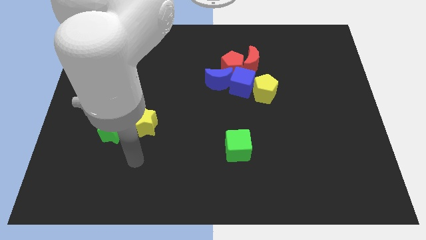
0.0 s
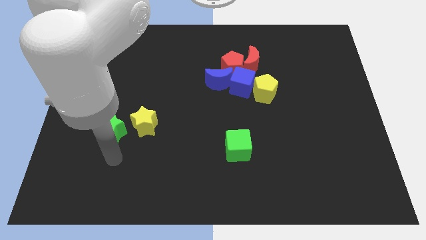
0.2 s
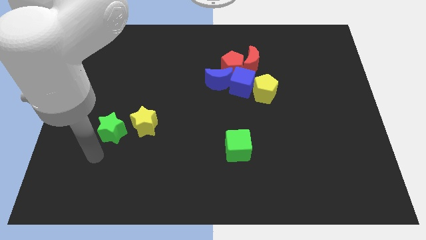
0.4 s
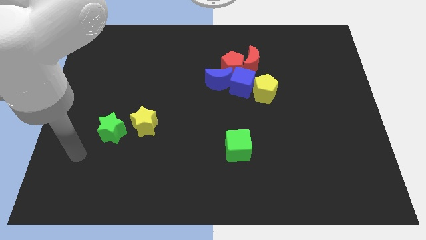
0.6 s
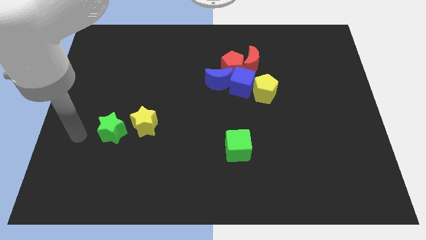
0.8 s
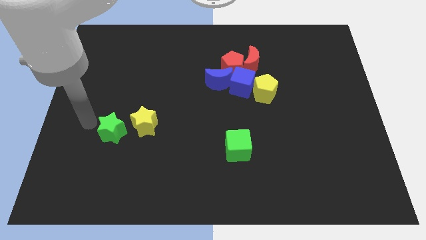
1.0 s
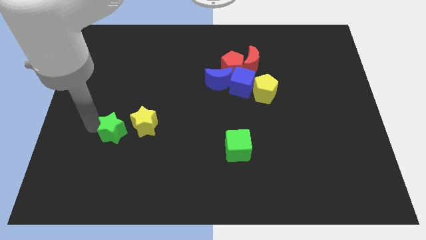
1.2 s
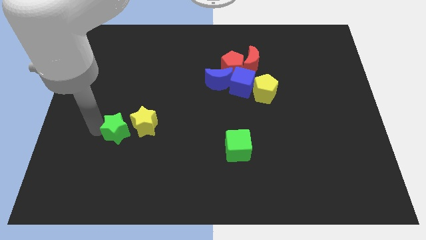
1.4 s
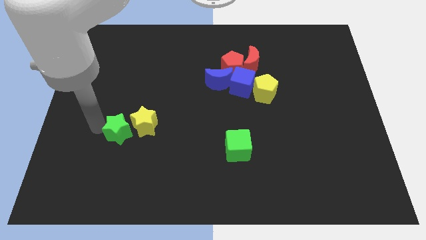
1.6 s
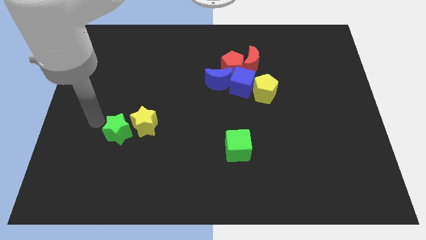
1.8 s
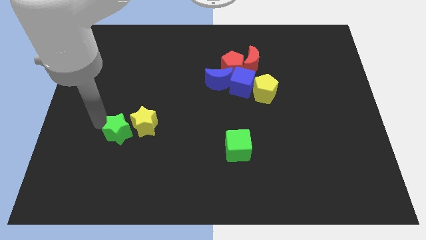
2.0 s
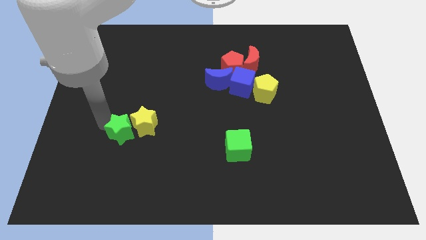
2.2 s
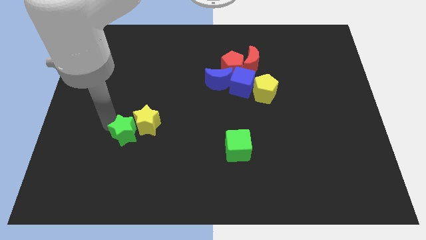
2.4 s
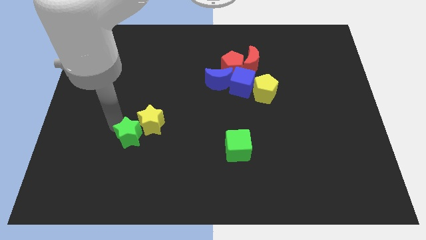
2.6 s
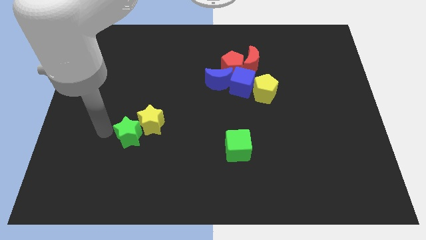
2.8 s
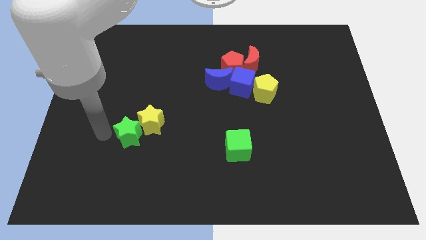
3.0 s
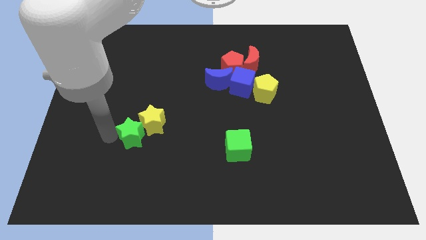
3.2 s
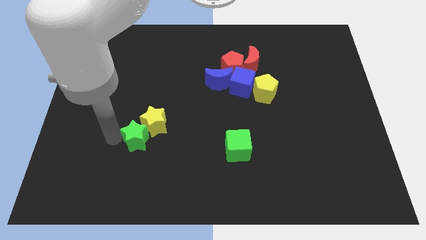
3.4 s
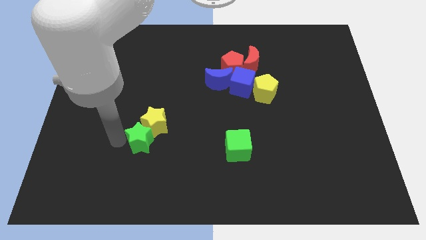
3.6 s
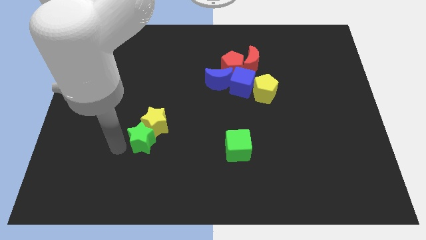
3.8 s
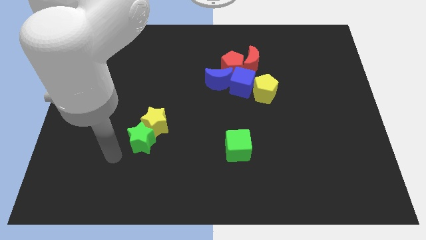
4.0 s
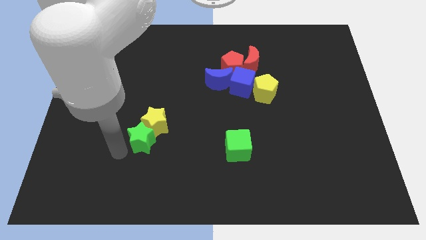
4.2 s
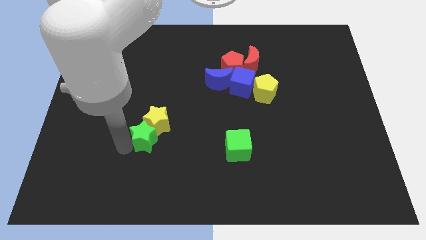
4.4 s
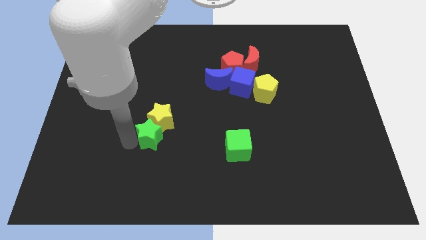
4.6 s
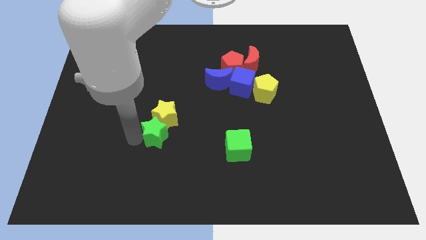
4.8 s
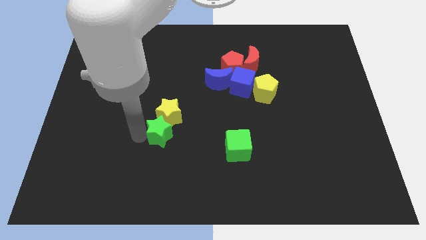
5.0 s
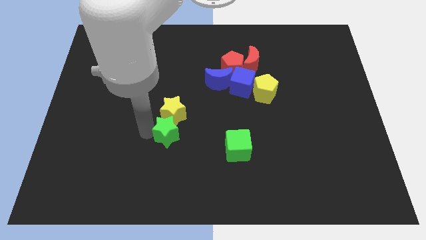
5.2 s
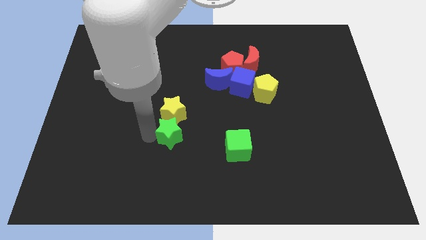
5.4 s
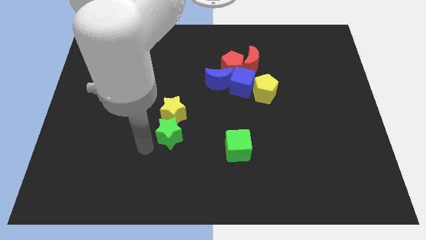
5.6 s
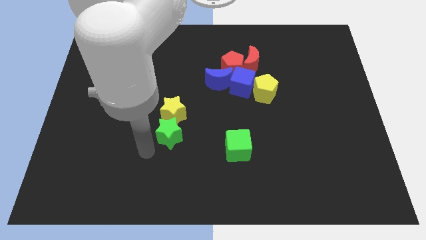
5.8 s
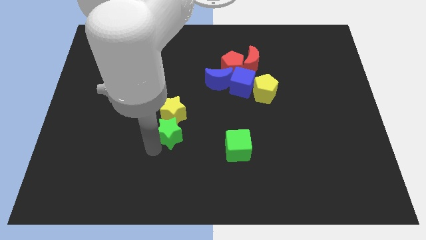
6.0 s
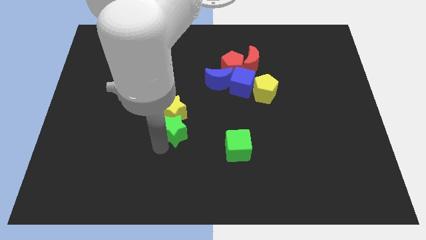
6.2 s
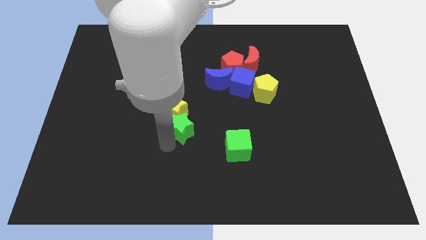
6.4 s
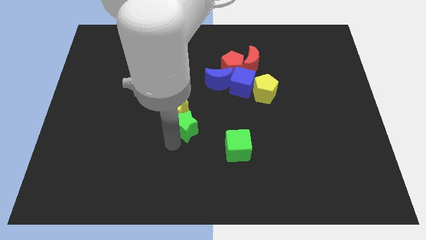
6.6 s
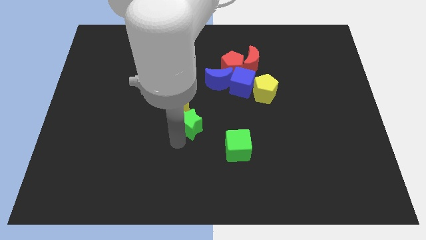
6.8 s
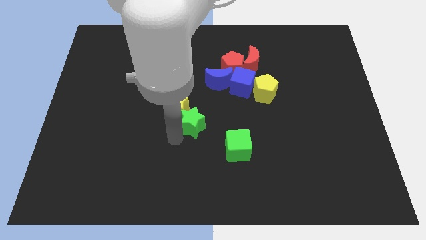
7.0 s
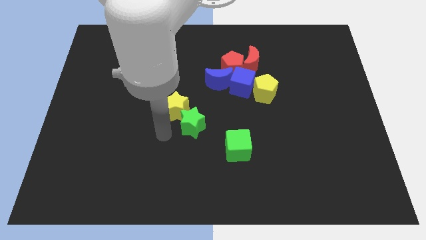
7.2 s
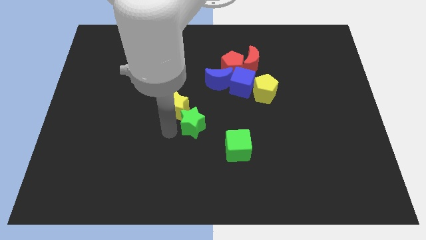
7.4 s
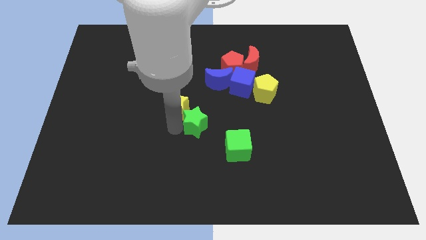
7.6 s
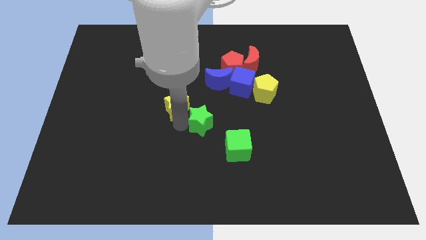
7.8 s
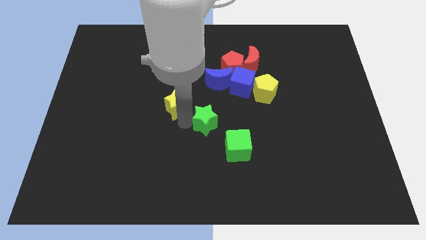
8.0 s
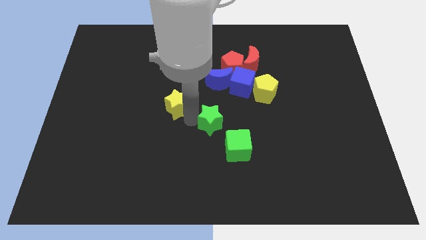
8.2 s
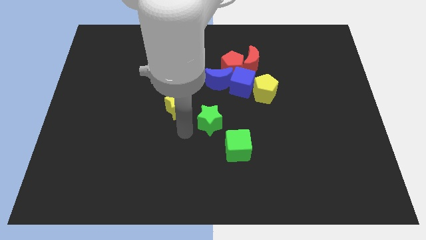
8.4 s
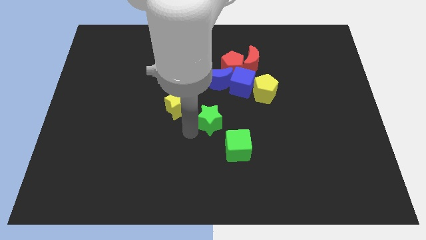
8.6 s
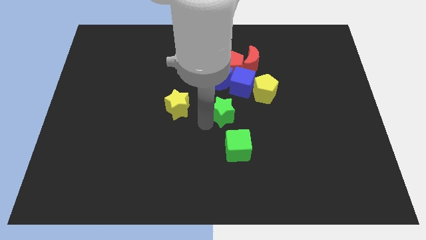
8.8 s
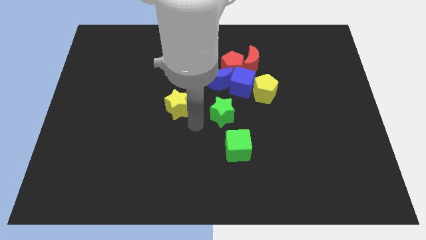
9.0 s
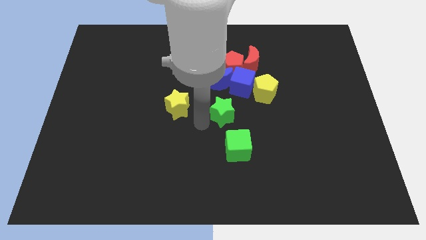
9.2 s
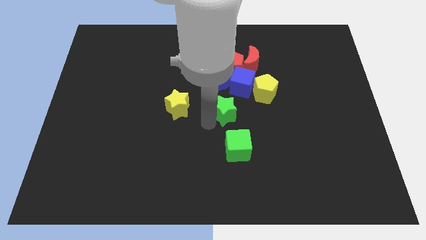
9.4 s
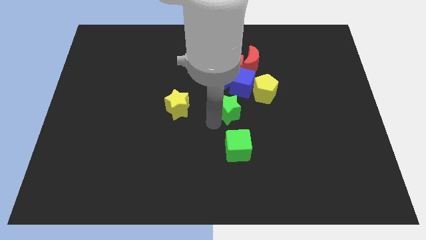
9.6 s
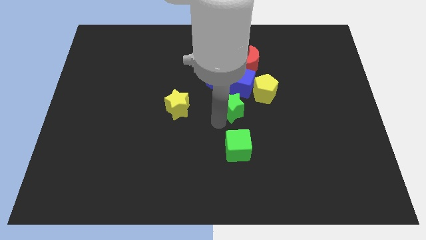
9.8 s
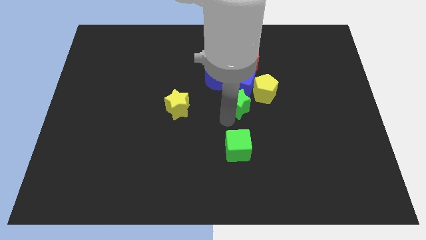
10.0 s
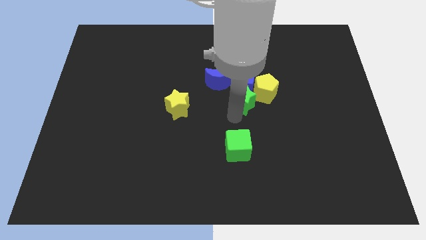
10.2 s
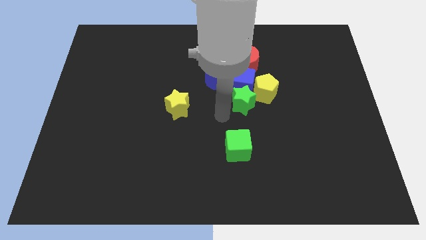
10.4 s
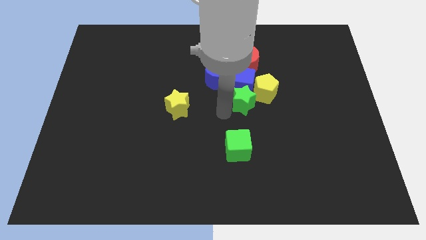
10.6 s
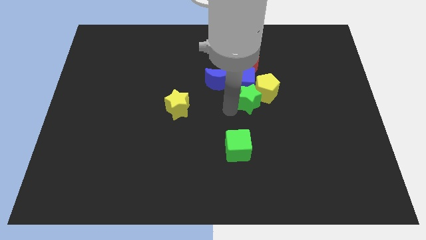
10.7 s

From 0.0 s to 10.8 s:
push the green star next to the yellow pentagon

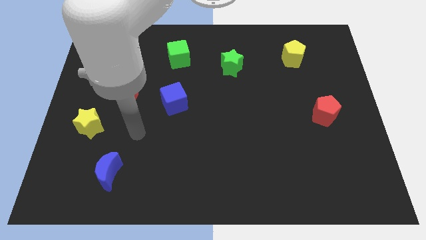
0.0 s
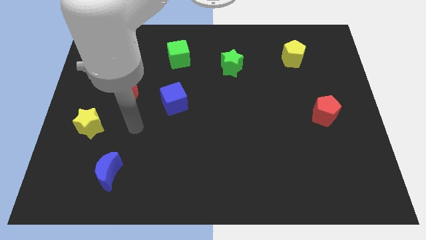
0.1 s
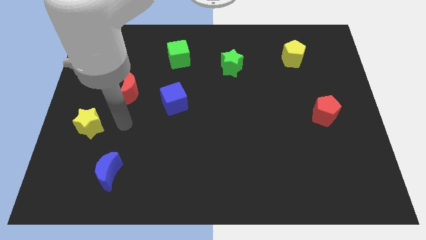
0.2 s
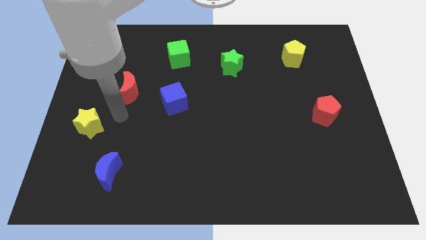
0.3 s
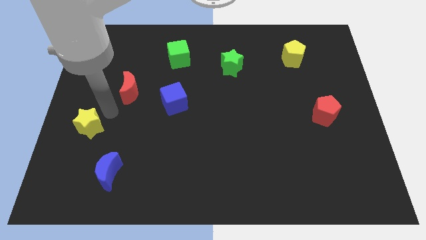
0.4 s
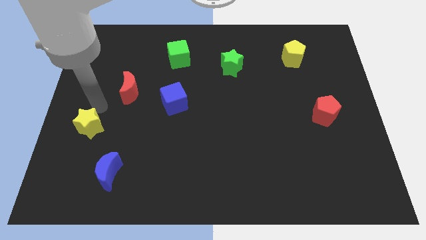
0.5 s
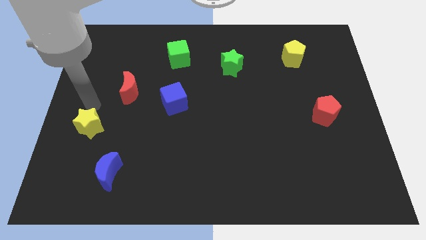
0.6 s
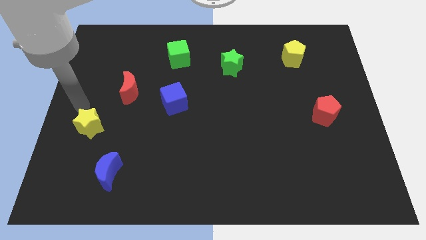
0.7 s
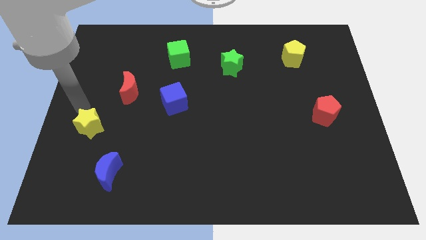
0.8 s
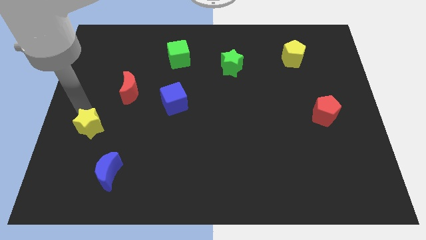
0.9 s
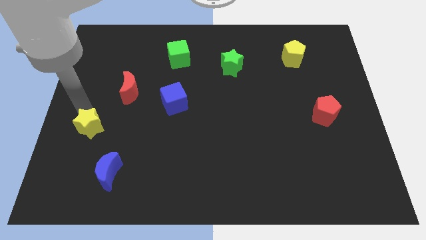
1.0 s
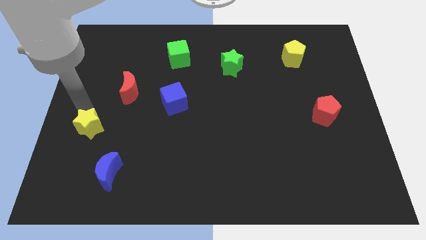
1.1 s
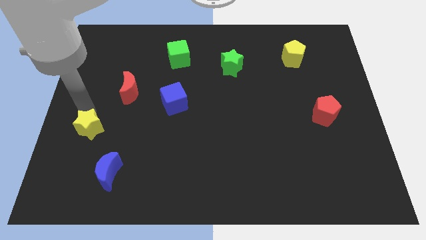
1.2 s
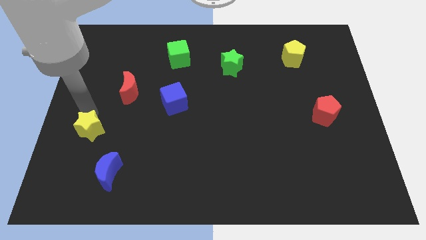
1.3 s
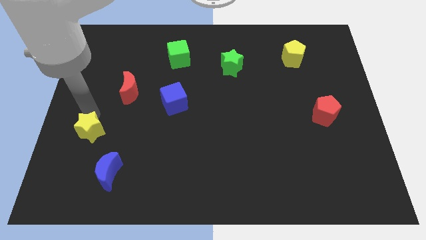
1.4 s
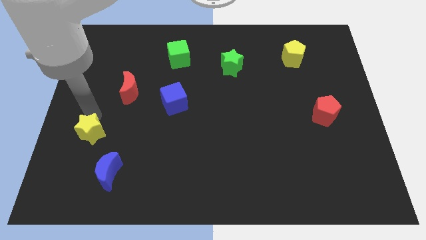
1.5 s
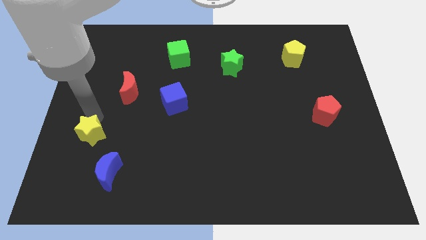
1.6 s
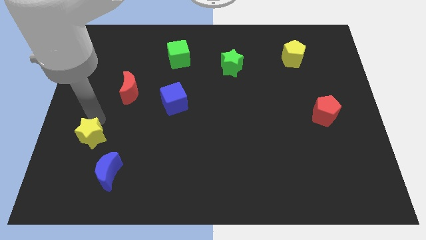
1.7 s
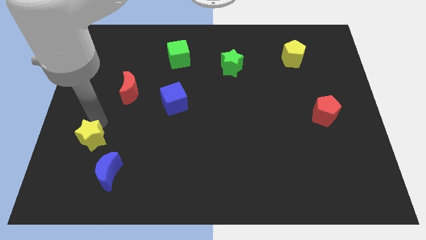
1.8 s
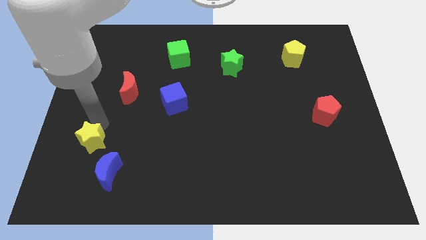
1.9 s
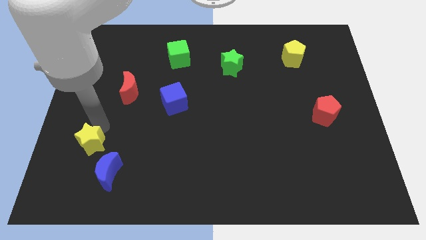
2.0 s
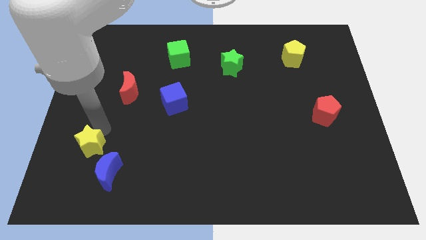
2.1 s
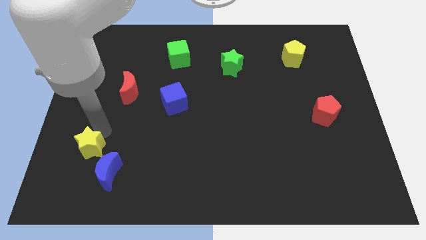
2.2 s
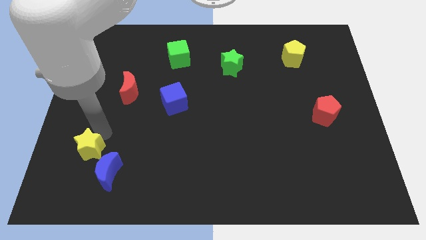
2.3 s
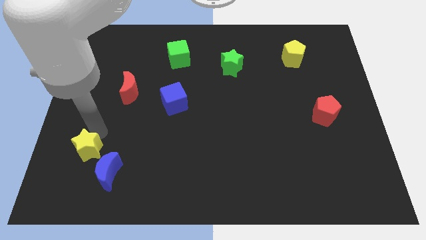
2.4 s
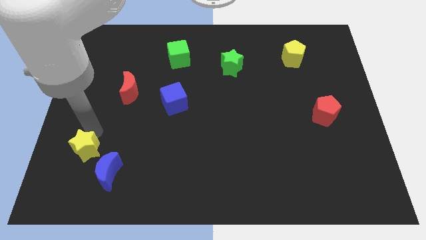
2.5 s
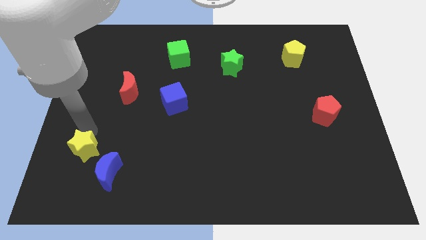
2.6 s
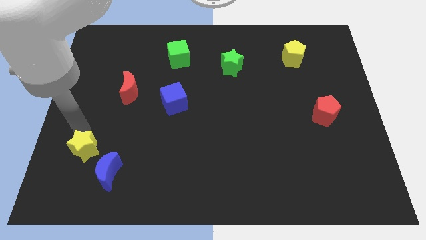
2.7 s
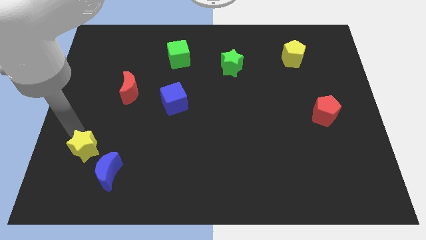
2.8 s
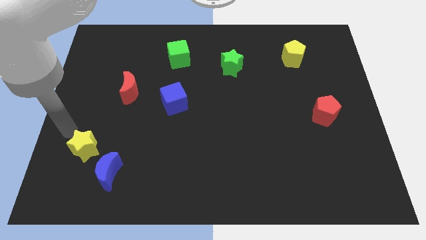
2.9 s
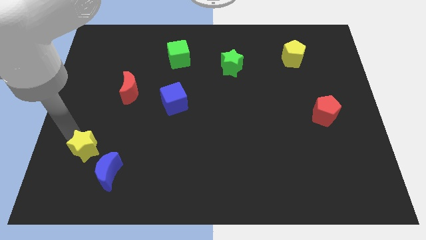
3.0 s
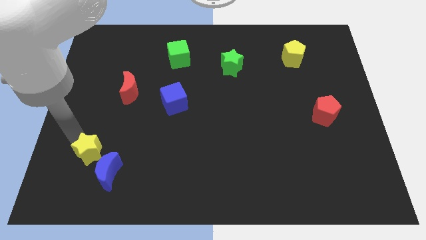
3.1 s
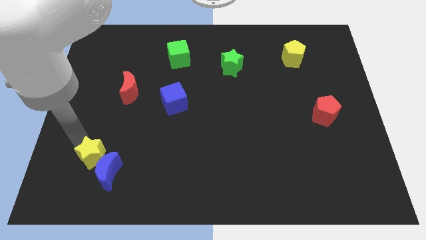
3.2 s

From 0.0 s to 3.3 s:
put the yellow star next to the blue moon
